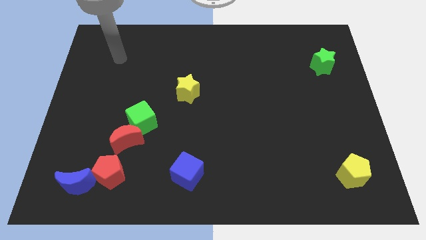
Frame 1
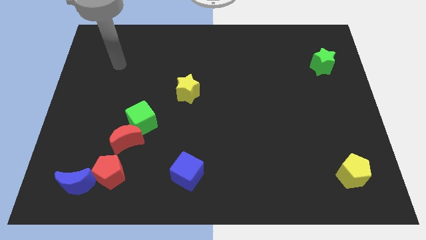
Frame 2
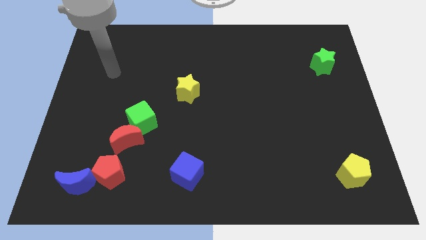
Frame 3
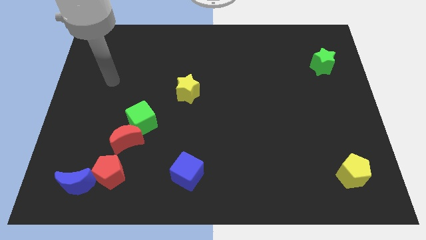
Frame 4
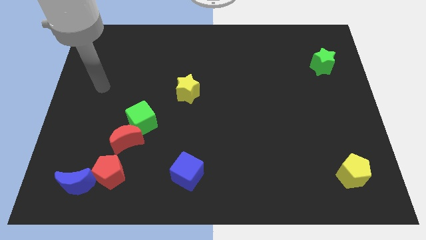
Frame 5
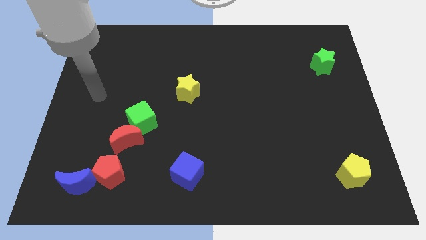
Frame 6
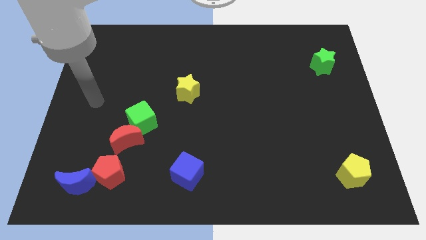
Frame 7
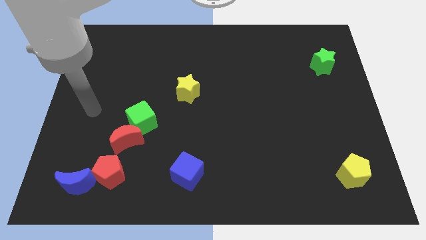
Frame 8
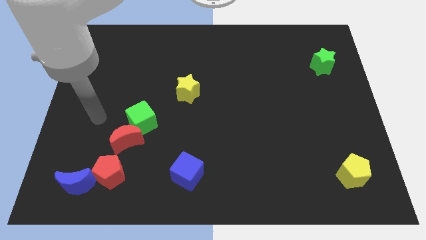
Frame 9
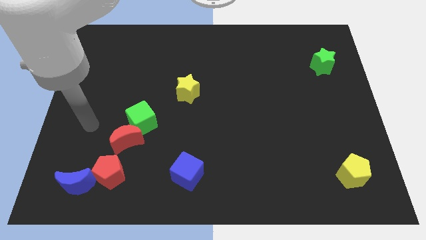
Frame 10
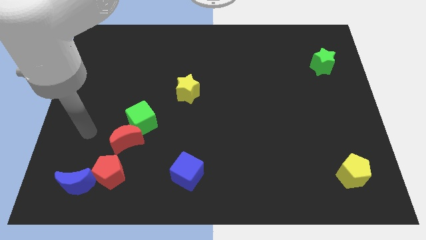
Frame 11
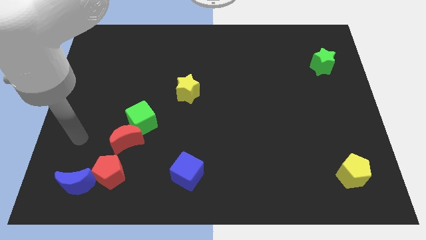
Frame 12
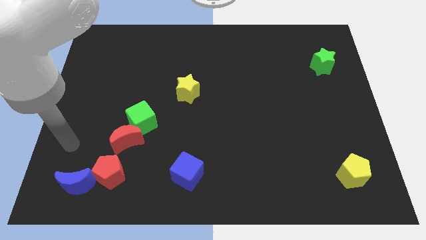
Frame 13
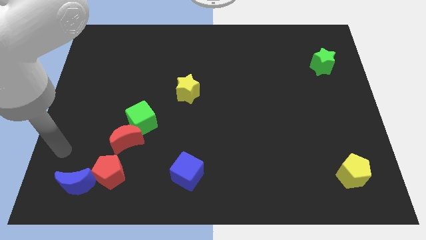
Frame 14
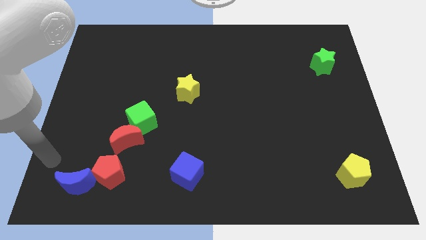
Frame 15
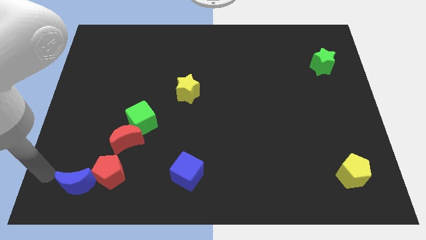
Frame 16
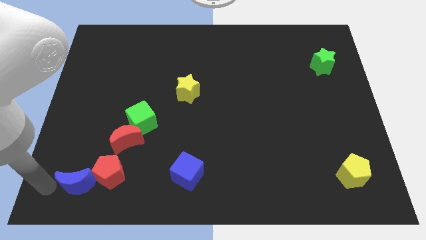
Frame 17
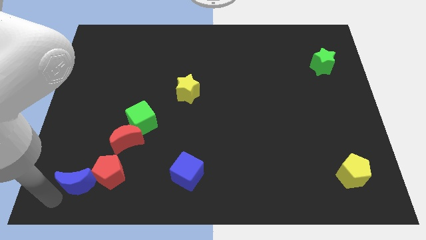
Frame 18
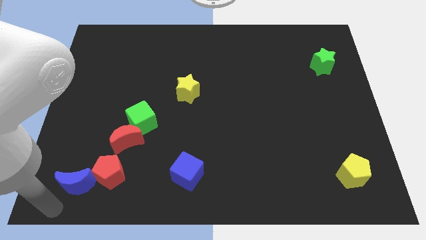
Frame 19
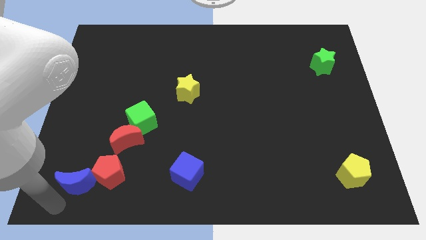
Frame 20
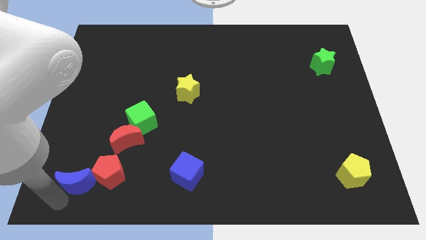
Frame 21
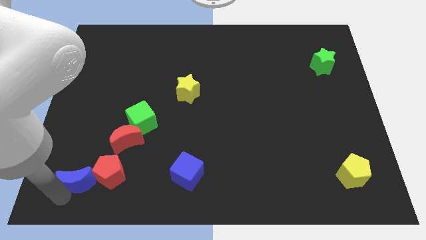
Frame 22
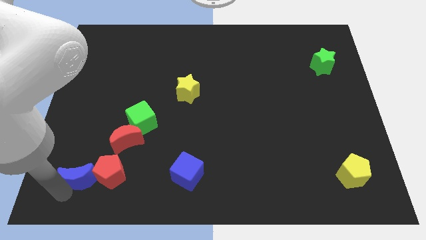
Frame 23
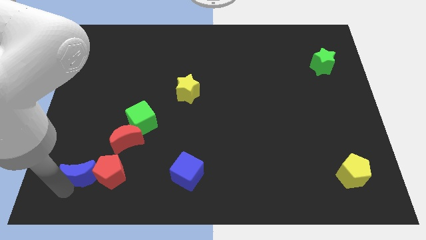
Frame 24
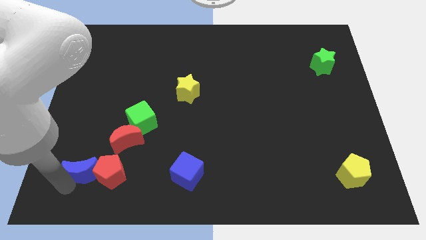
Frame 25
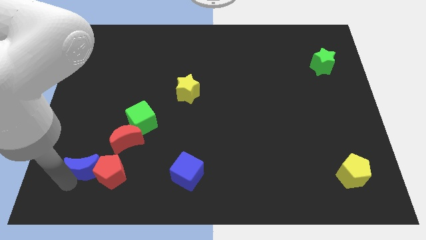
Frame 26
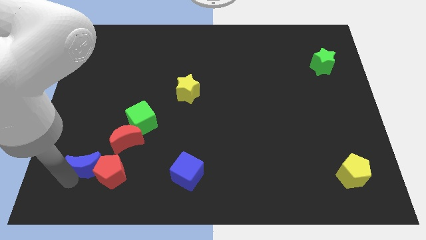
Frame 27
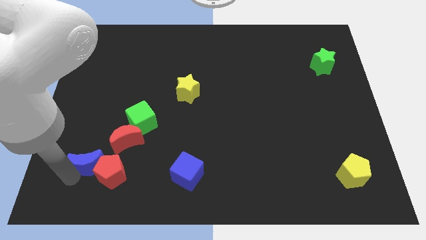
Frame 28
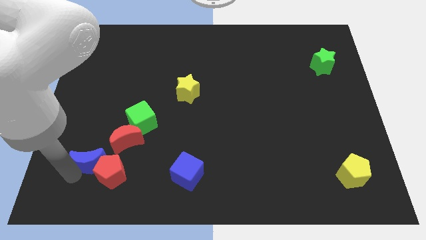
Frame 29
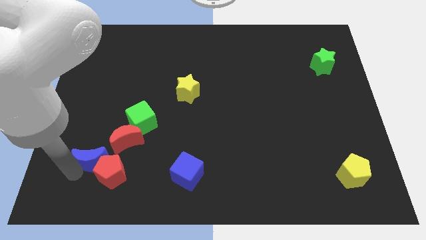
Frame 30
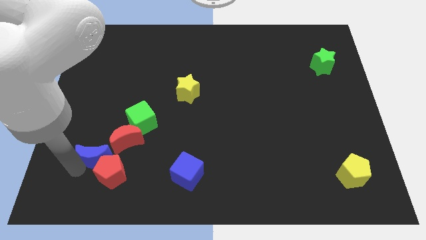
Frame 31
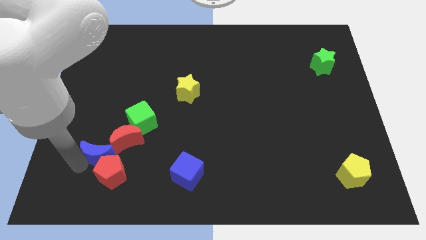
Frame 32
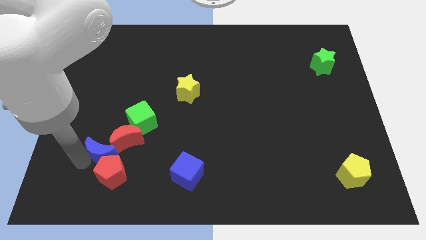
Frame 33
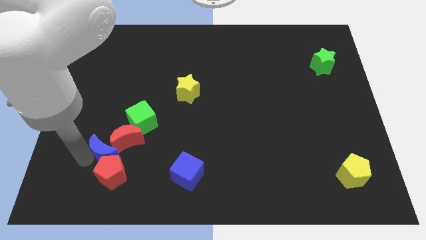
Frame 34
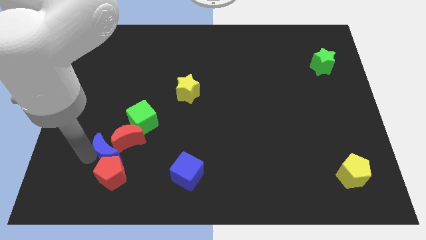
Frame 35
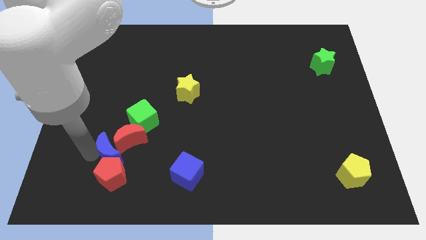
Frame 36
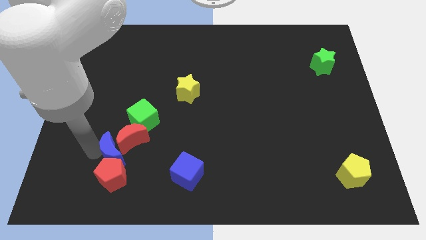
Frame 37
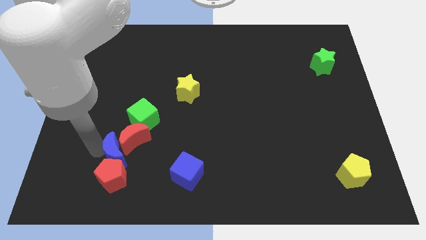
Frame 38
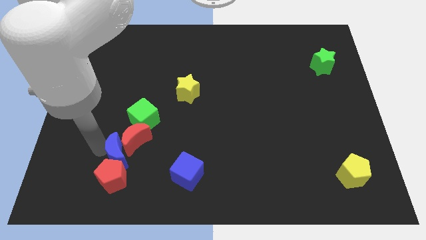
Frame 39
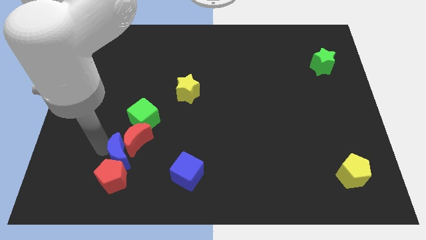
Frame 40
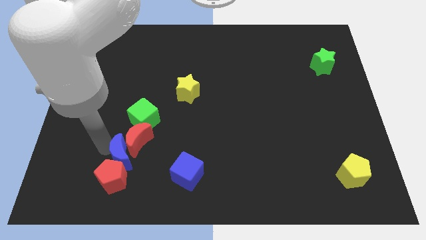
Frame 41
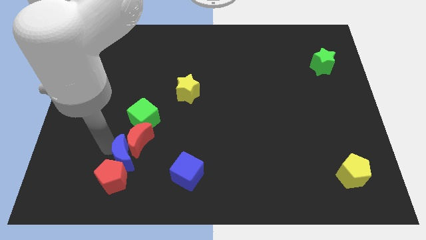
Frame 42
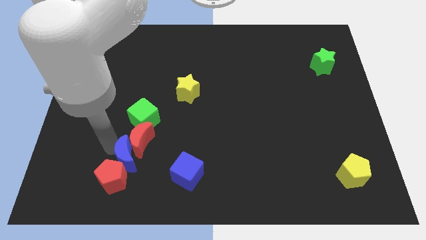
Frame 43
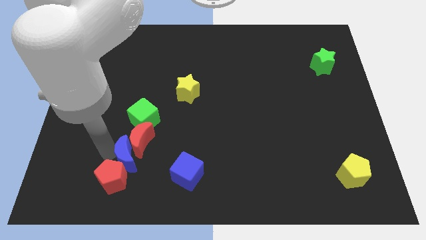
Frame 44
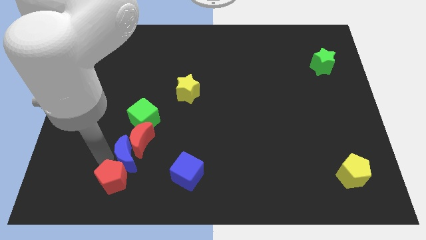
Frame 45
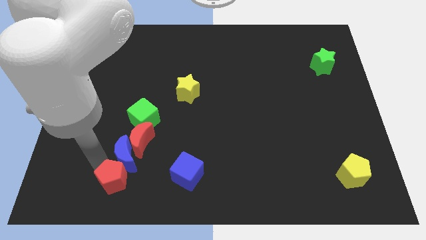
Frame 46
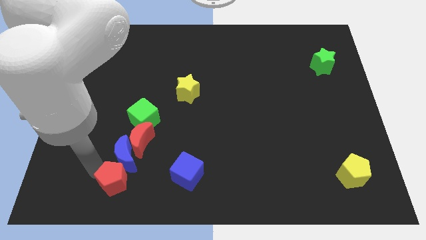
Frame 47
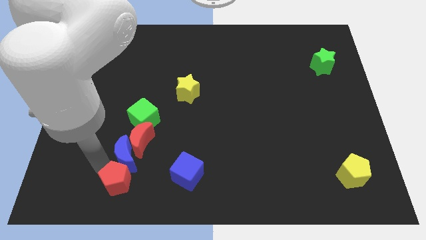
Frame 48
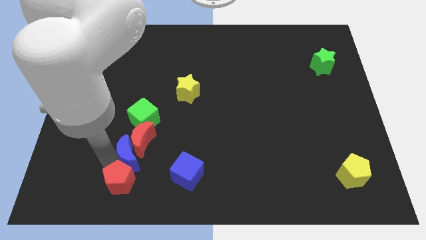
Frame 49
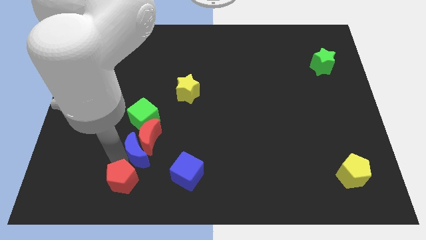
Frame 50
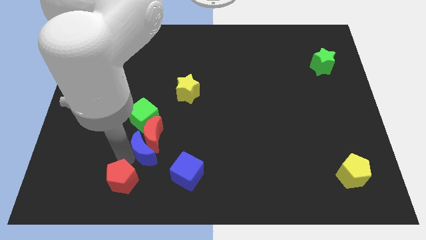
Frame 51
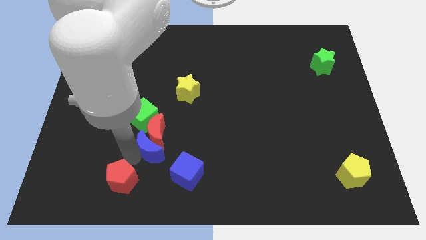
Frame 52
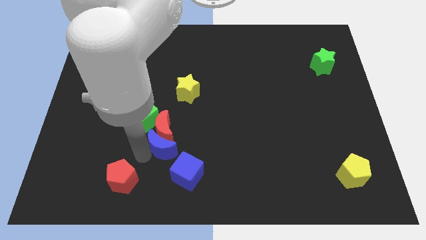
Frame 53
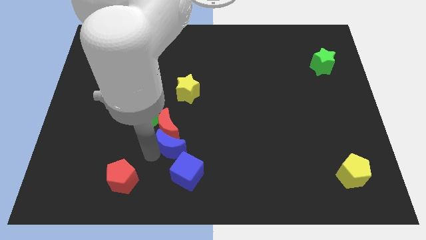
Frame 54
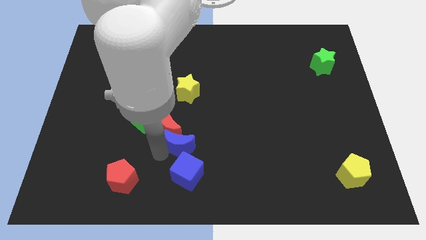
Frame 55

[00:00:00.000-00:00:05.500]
push the blue moon to the bottom of the yellow star

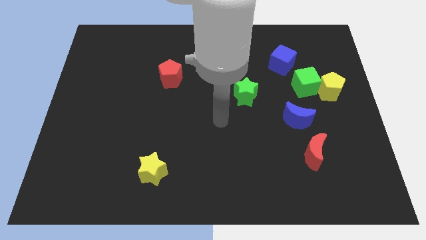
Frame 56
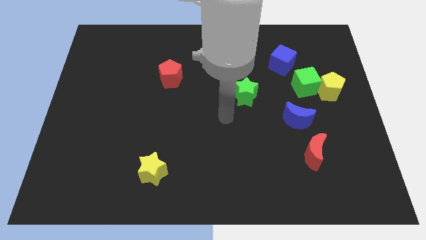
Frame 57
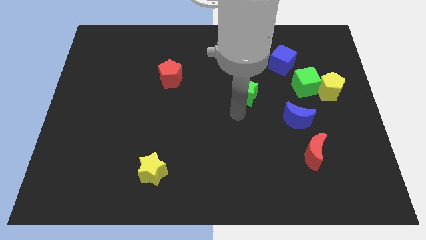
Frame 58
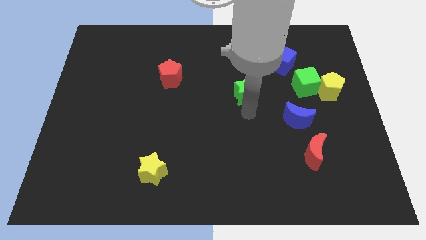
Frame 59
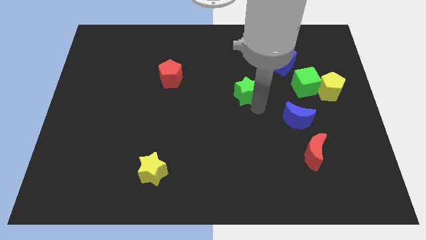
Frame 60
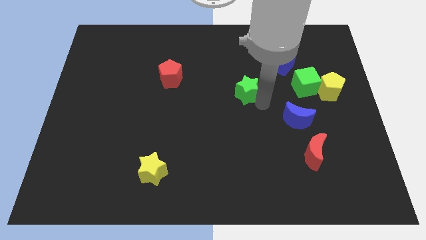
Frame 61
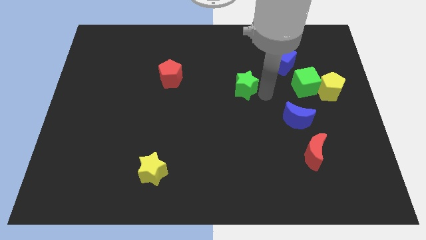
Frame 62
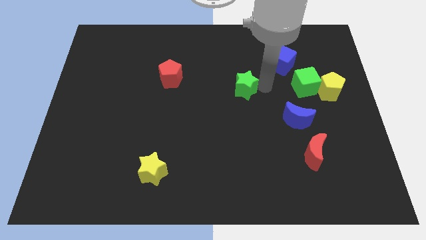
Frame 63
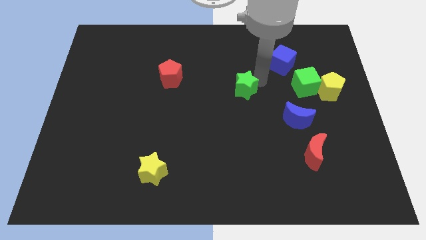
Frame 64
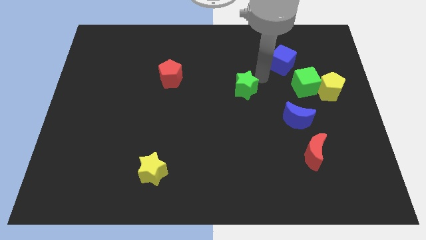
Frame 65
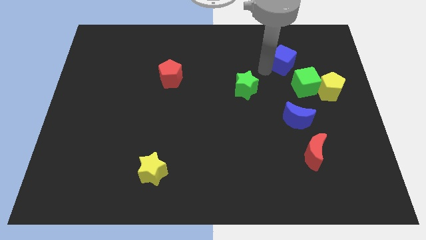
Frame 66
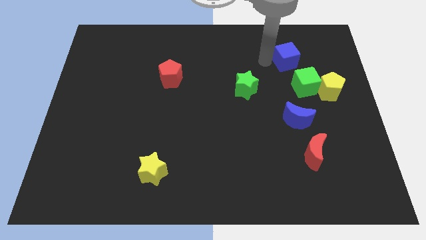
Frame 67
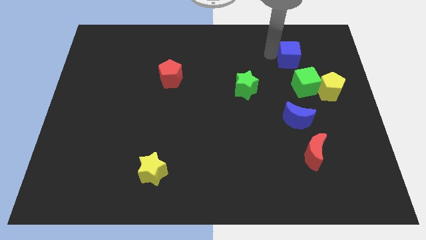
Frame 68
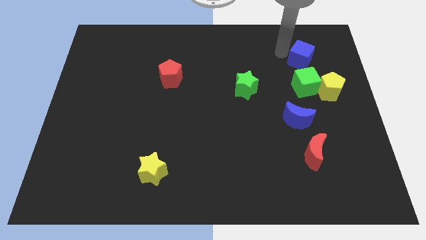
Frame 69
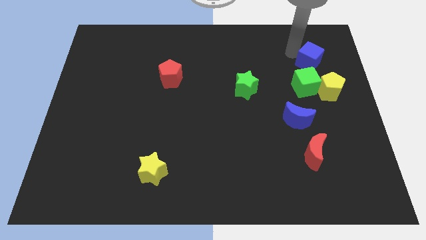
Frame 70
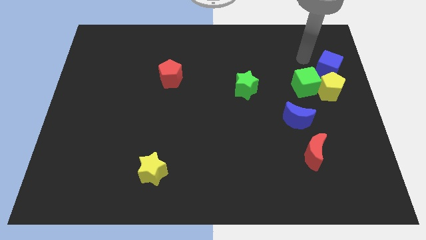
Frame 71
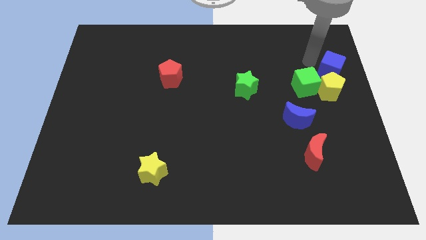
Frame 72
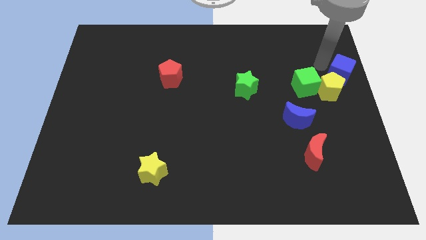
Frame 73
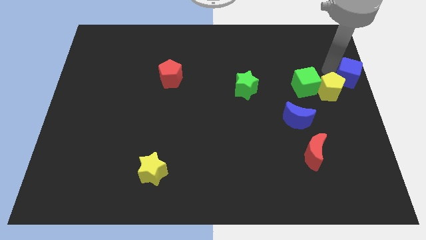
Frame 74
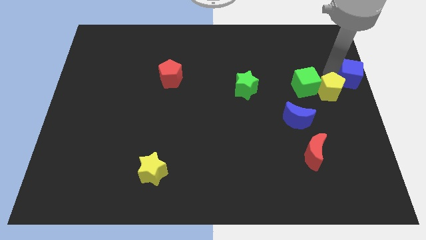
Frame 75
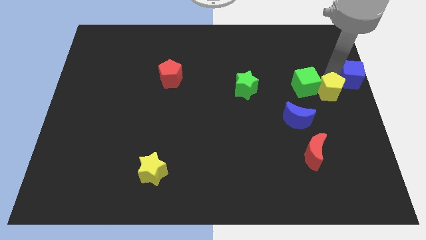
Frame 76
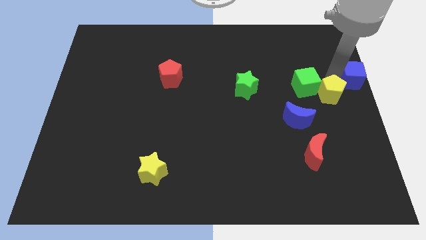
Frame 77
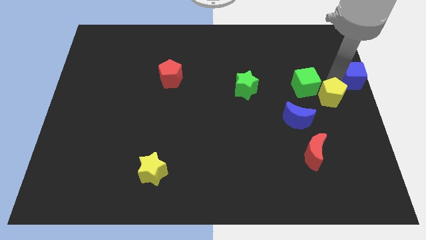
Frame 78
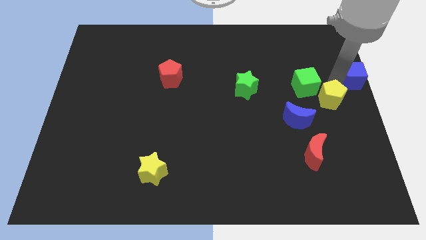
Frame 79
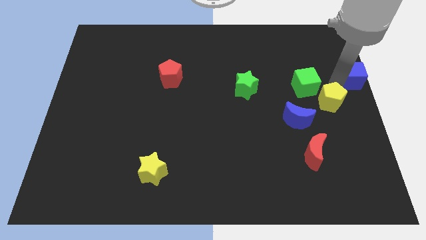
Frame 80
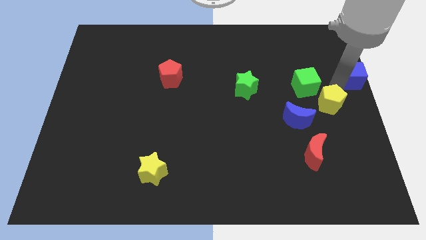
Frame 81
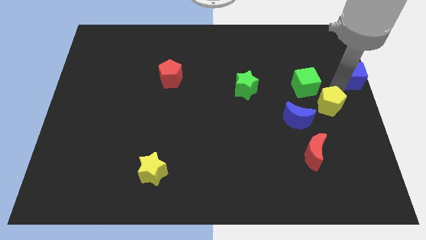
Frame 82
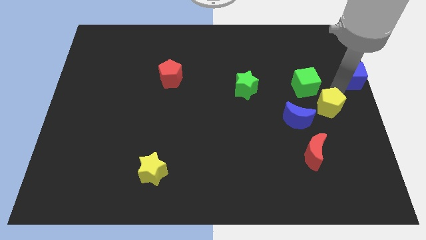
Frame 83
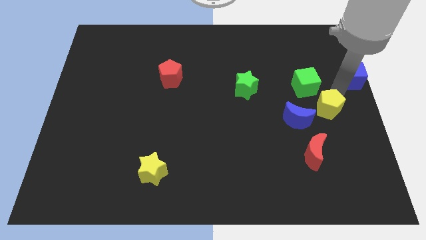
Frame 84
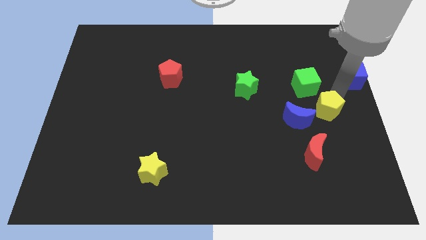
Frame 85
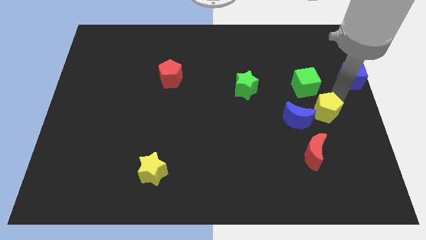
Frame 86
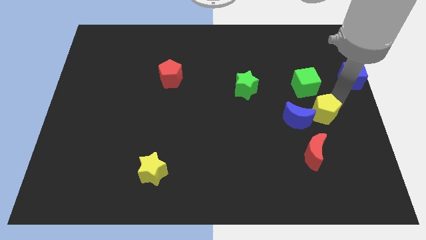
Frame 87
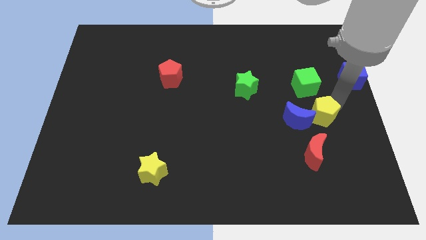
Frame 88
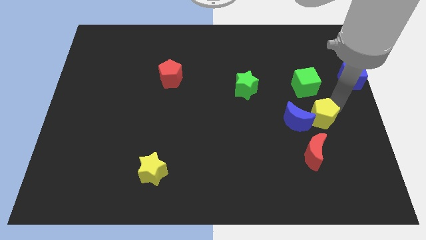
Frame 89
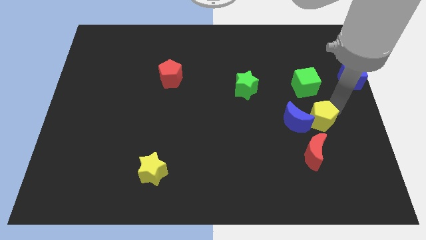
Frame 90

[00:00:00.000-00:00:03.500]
put the yellow pentagon to the bottom right of the blue moon
